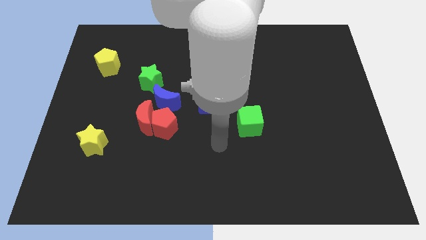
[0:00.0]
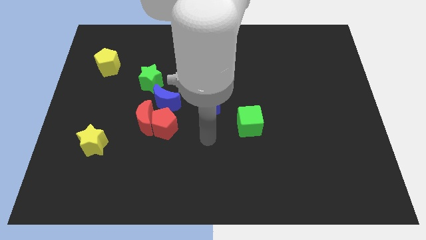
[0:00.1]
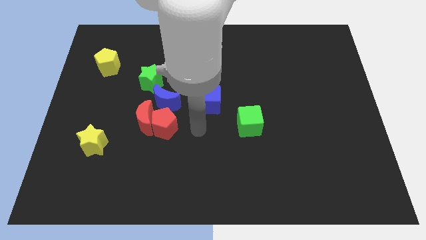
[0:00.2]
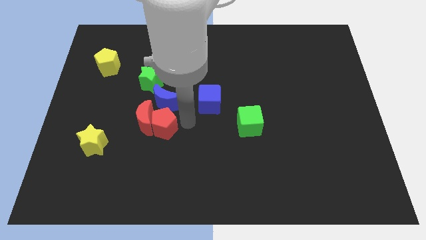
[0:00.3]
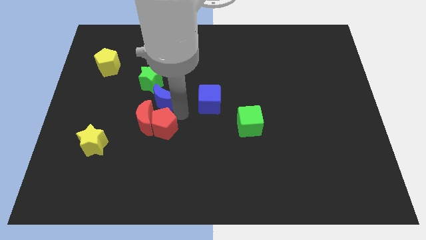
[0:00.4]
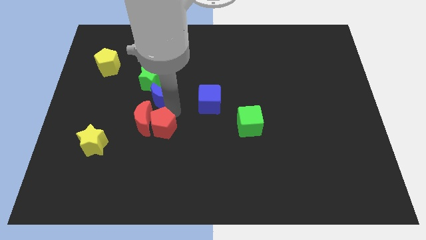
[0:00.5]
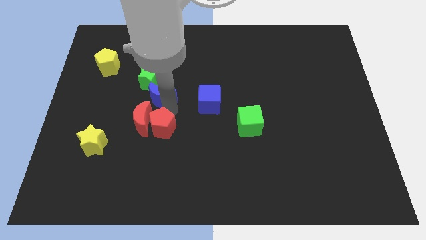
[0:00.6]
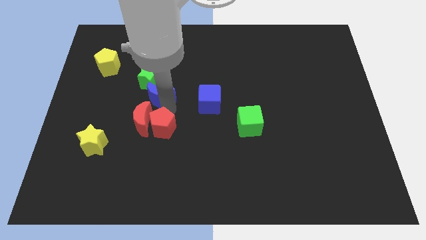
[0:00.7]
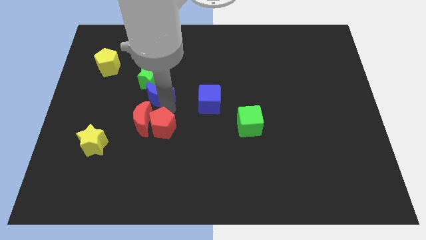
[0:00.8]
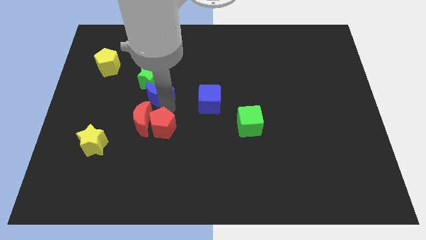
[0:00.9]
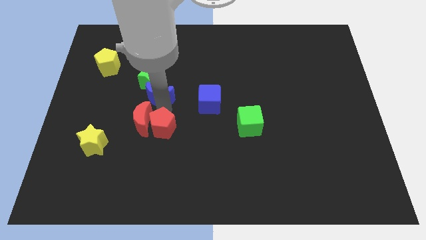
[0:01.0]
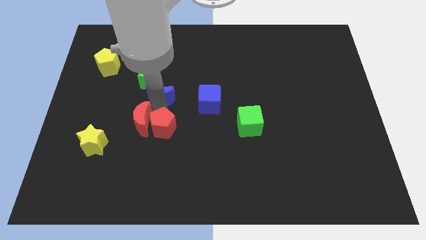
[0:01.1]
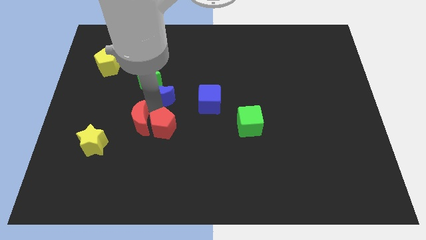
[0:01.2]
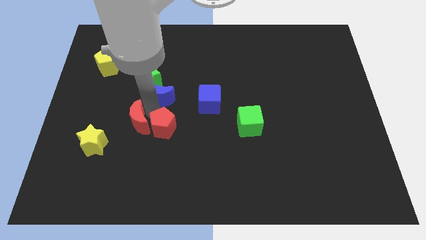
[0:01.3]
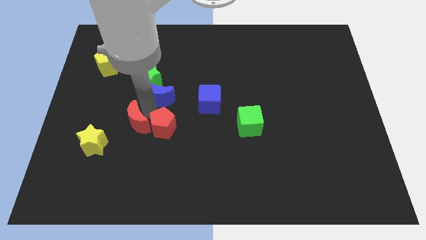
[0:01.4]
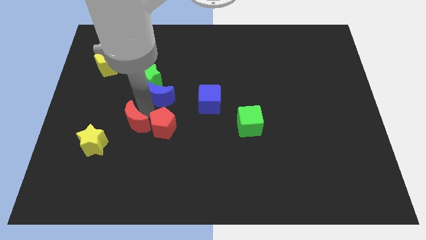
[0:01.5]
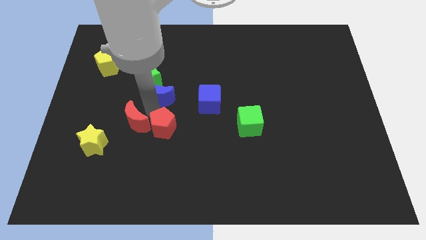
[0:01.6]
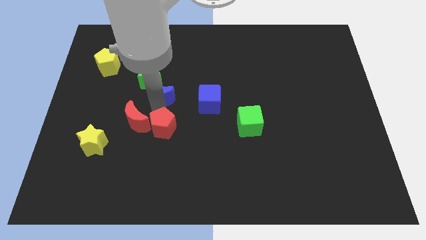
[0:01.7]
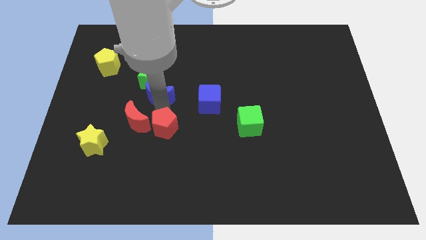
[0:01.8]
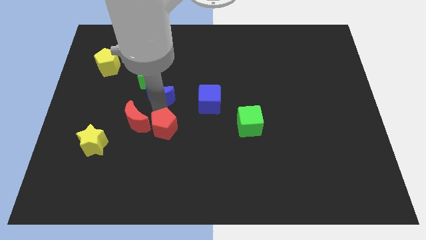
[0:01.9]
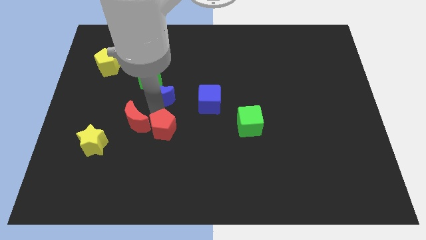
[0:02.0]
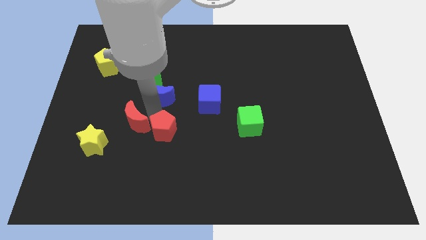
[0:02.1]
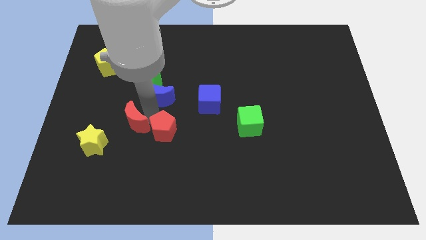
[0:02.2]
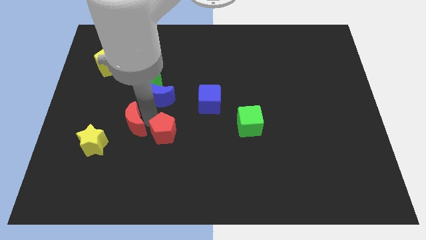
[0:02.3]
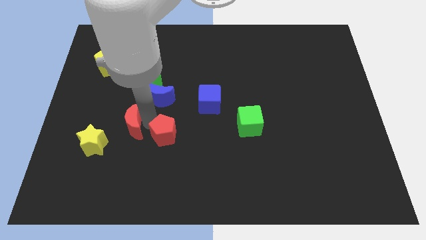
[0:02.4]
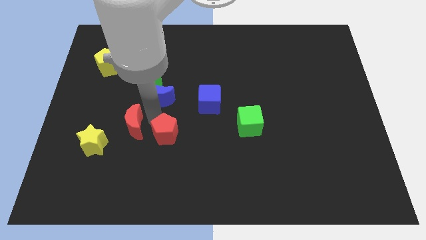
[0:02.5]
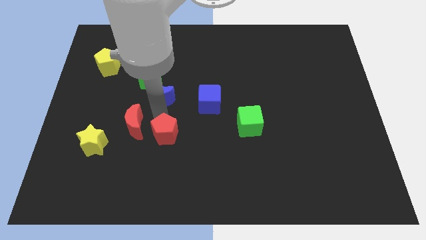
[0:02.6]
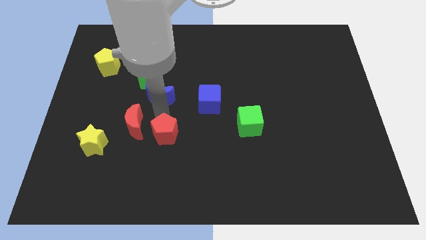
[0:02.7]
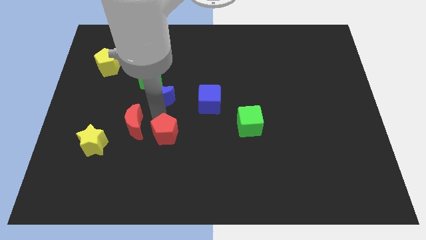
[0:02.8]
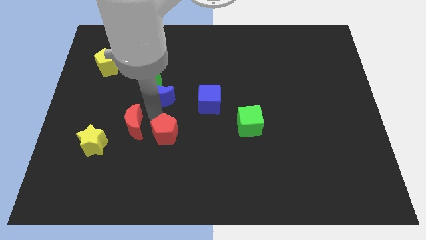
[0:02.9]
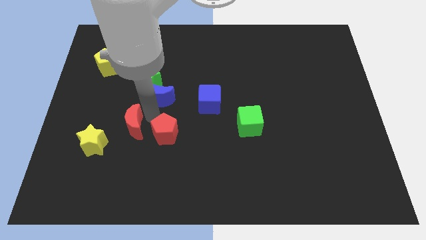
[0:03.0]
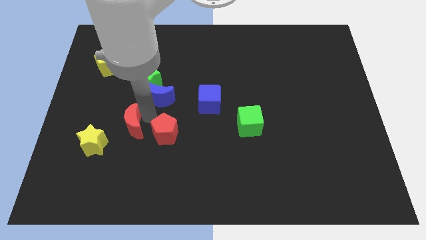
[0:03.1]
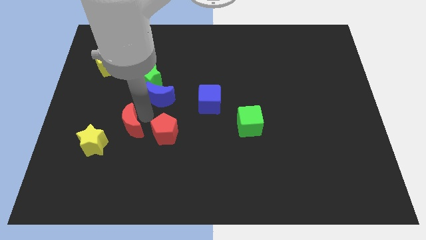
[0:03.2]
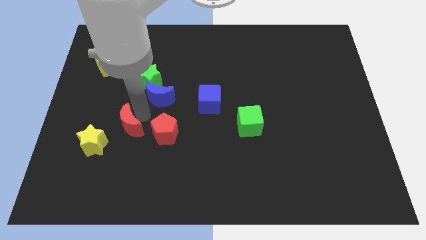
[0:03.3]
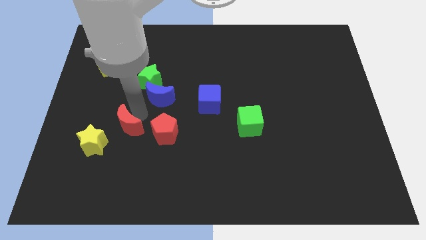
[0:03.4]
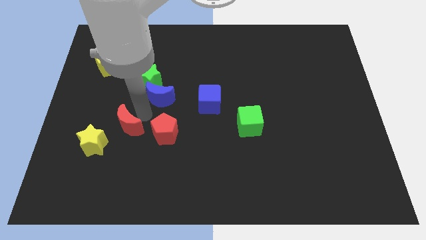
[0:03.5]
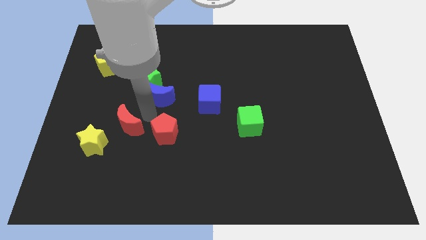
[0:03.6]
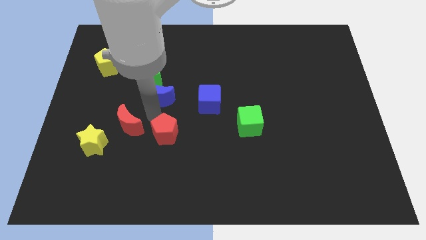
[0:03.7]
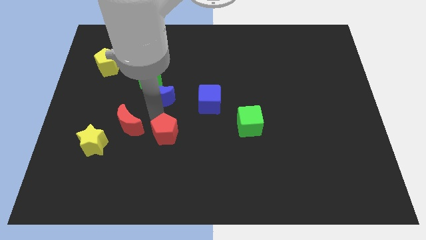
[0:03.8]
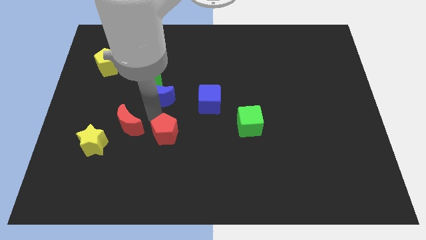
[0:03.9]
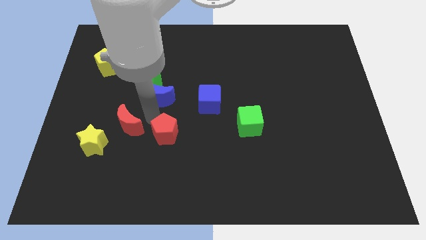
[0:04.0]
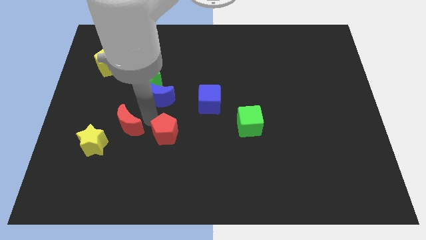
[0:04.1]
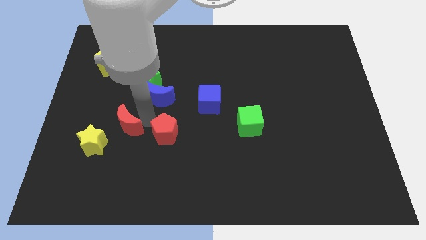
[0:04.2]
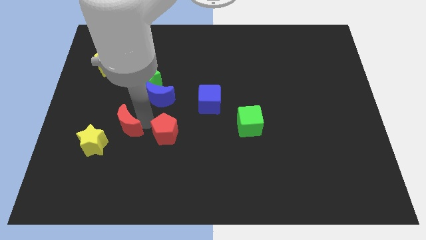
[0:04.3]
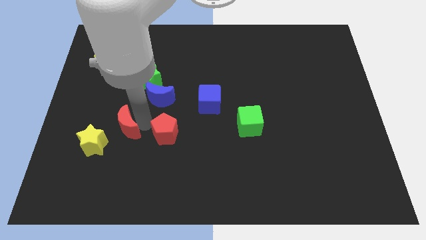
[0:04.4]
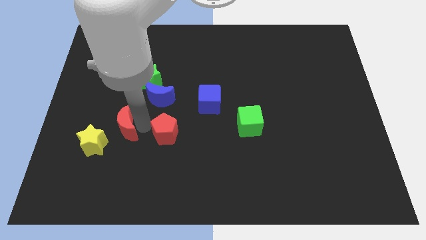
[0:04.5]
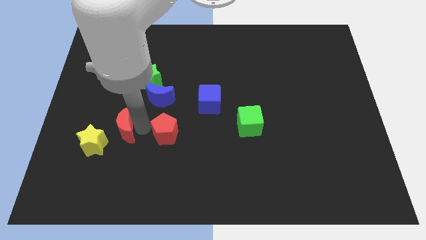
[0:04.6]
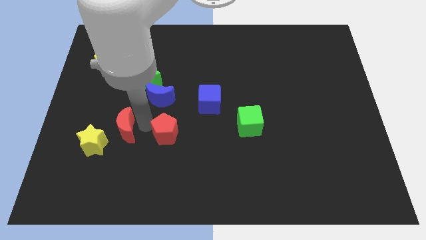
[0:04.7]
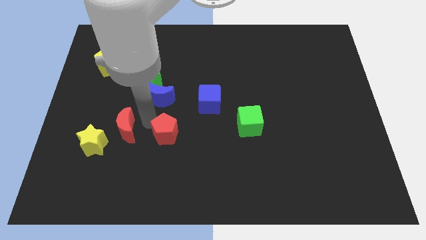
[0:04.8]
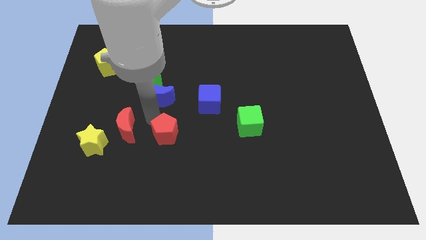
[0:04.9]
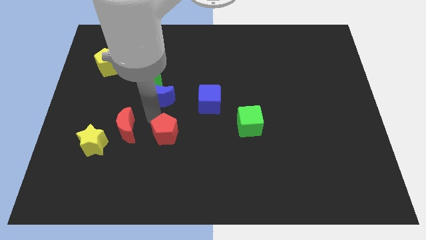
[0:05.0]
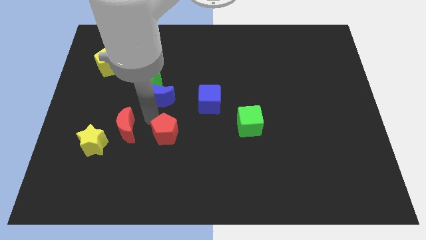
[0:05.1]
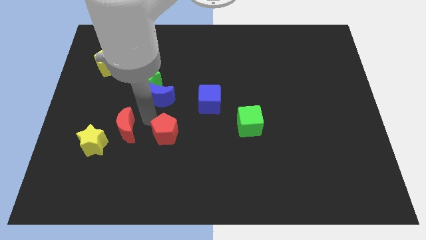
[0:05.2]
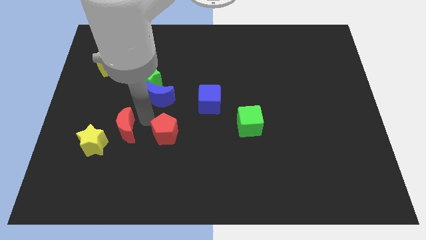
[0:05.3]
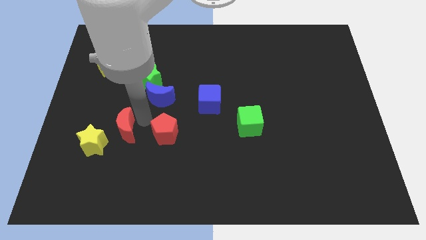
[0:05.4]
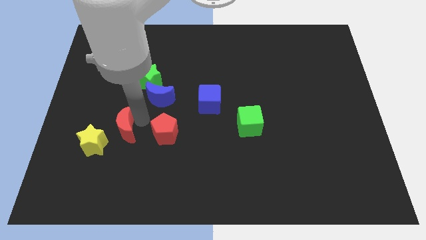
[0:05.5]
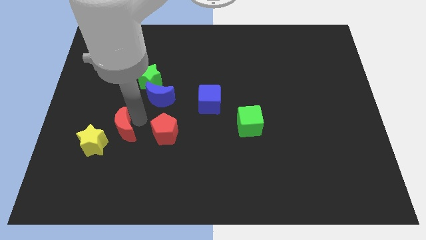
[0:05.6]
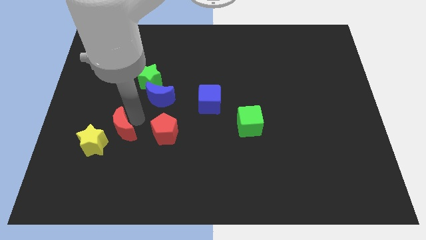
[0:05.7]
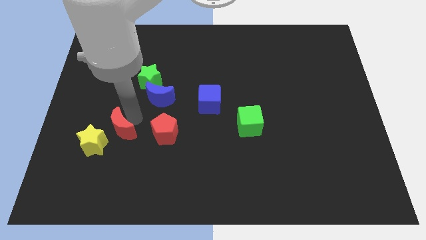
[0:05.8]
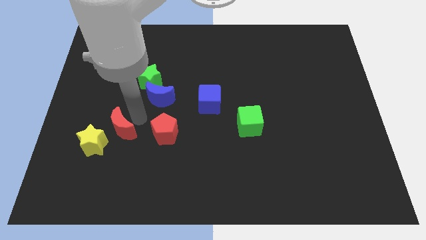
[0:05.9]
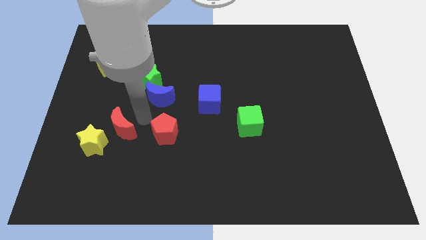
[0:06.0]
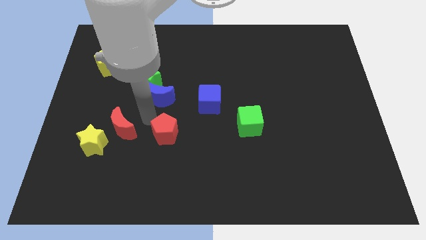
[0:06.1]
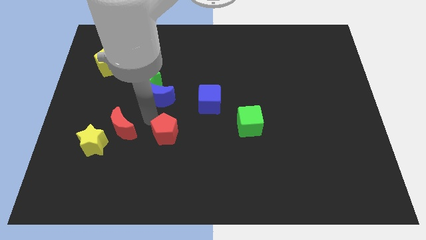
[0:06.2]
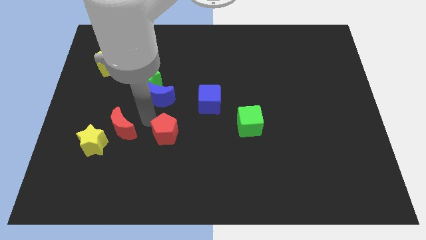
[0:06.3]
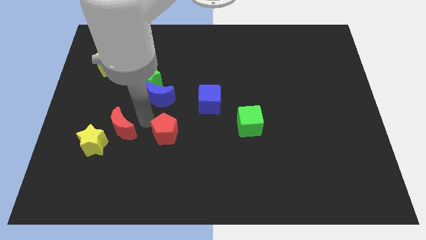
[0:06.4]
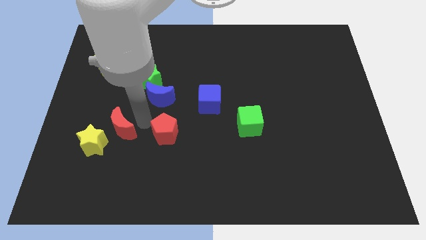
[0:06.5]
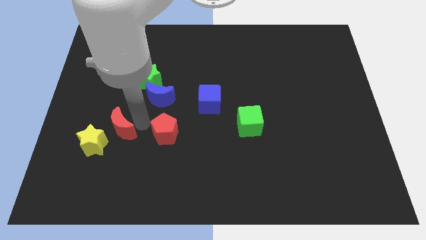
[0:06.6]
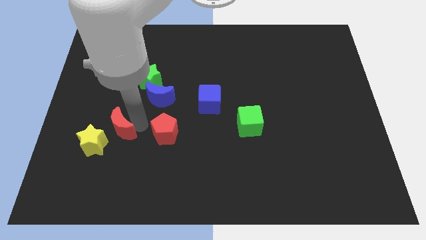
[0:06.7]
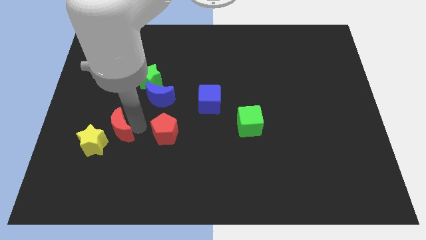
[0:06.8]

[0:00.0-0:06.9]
separate the red moon from the red pentagon and blue moon

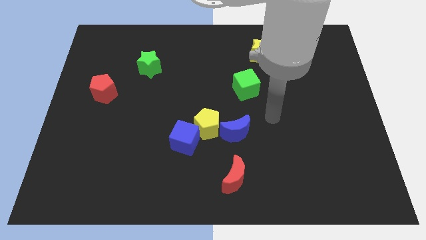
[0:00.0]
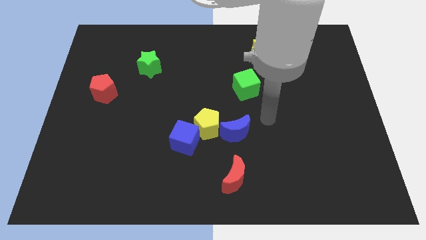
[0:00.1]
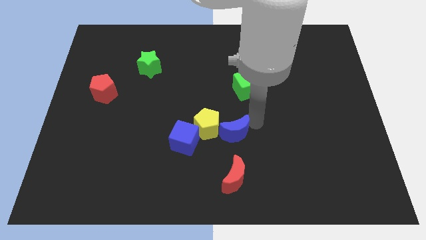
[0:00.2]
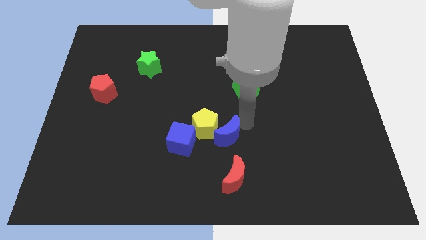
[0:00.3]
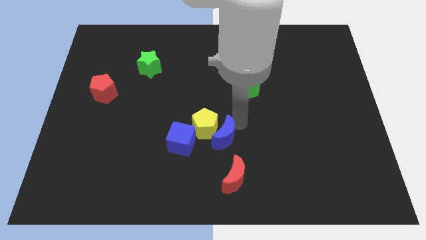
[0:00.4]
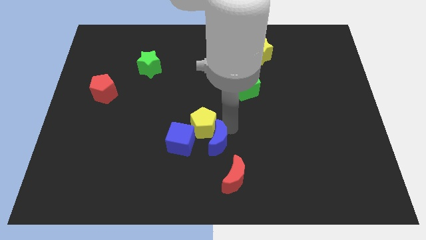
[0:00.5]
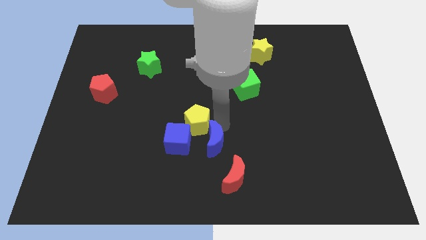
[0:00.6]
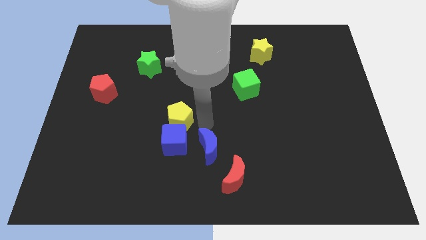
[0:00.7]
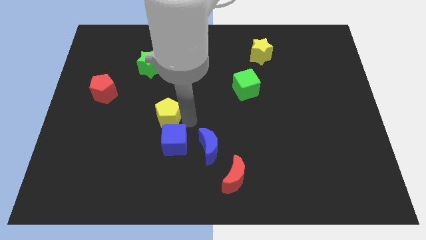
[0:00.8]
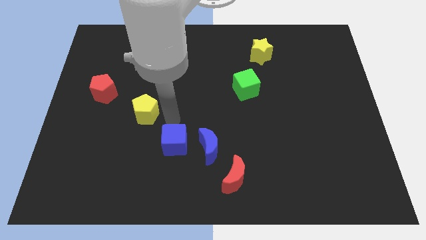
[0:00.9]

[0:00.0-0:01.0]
pull the blue cube apart from the yellow pentagon

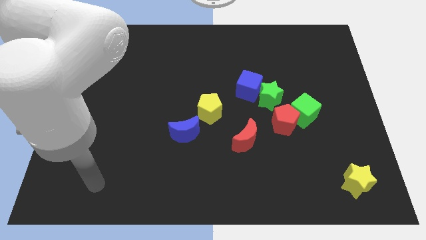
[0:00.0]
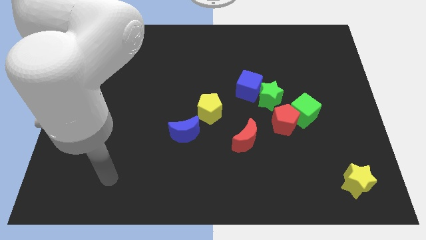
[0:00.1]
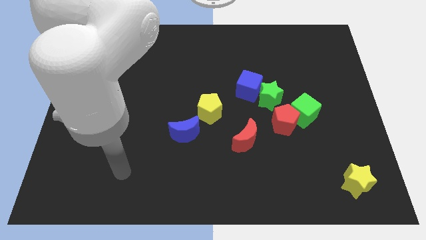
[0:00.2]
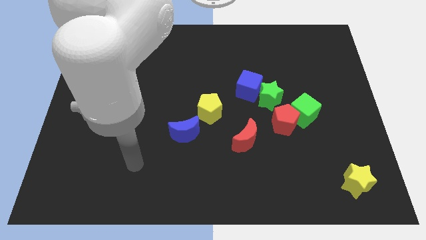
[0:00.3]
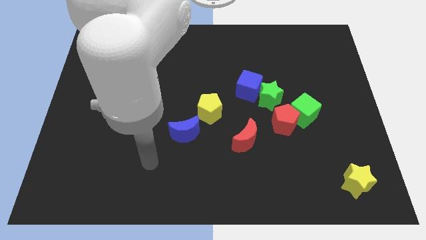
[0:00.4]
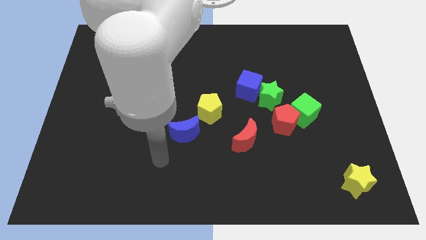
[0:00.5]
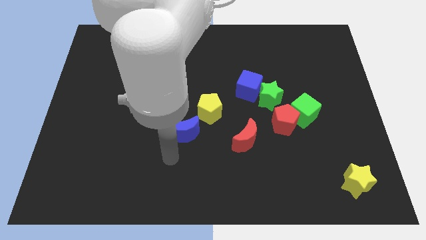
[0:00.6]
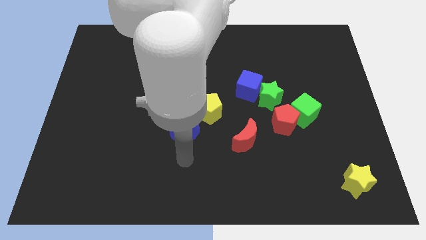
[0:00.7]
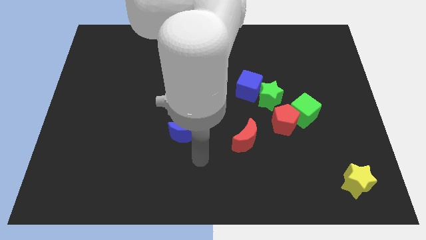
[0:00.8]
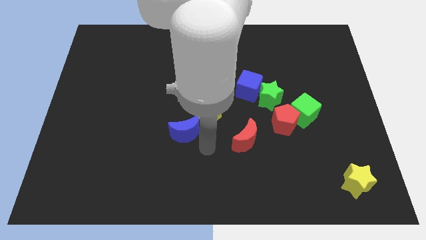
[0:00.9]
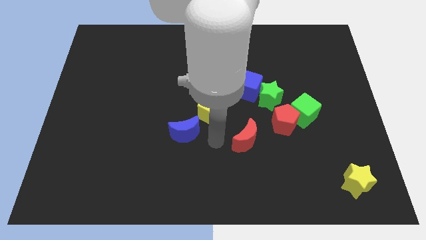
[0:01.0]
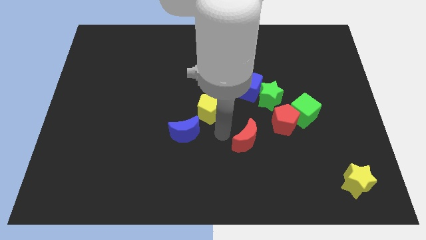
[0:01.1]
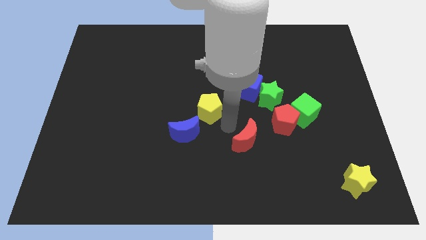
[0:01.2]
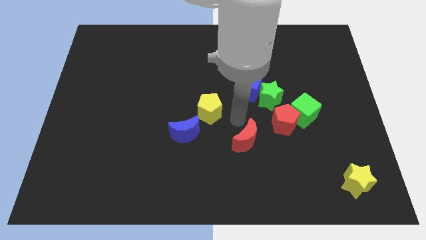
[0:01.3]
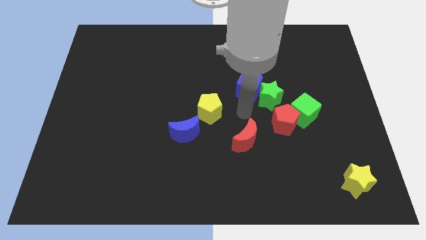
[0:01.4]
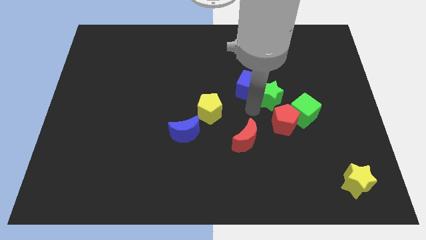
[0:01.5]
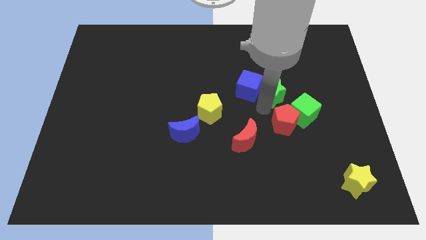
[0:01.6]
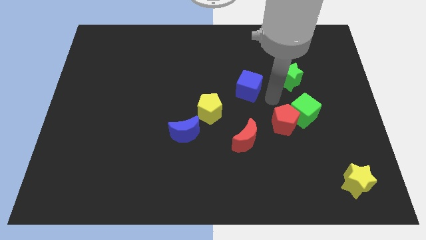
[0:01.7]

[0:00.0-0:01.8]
move the blue cube away from the green star
